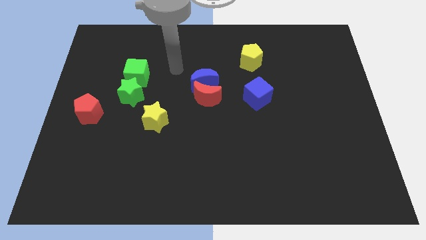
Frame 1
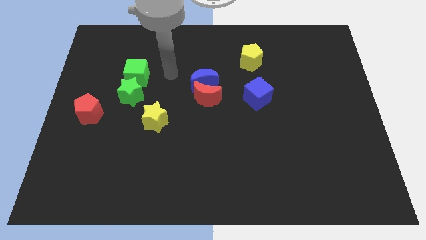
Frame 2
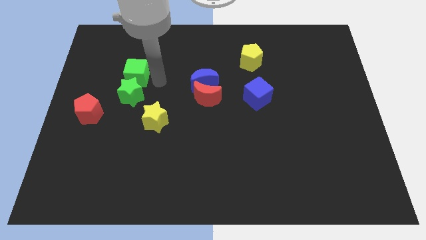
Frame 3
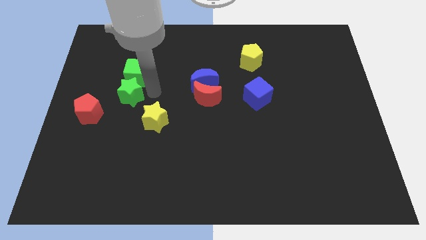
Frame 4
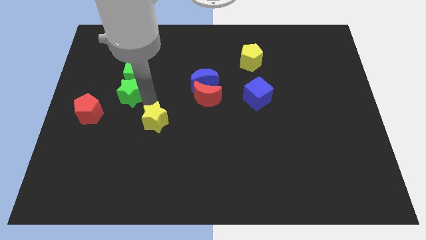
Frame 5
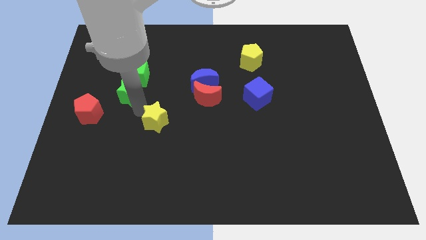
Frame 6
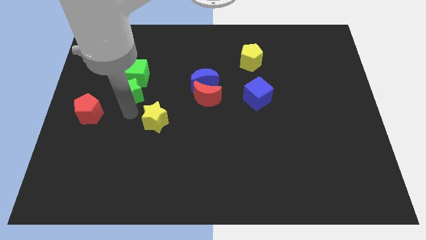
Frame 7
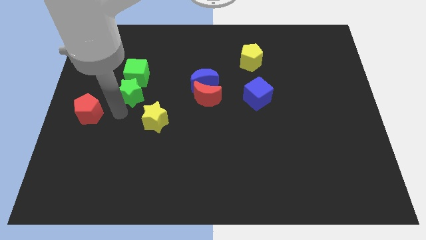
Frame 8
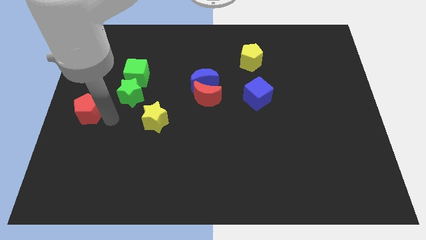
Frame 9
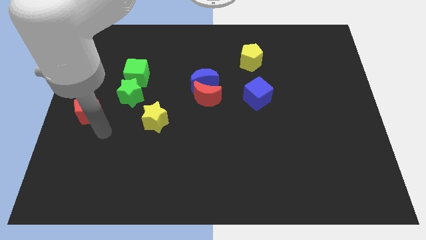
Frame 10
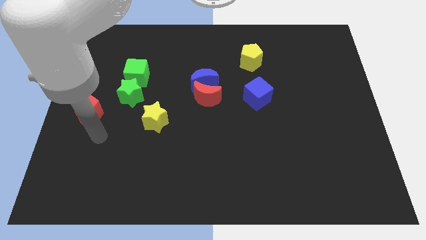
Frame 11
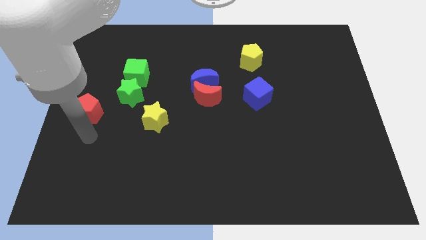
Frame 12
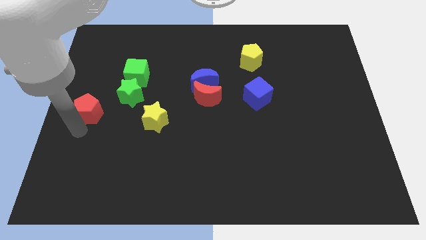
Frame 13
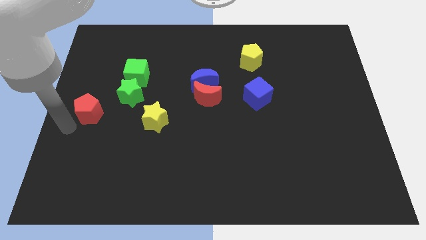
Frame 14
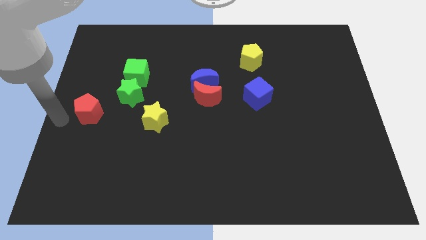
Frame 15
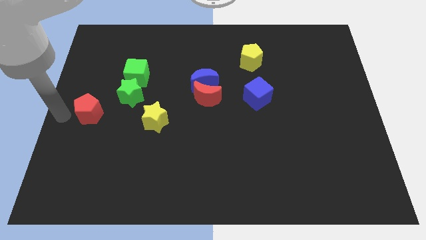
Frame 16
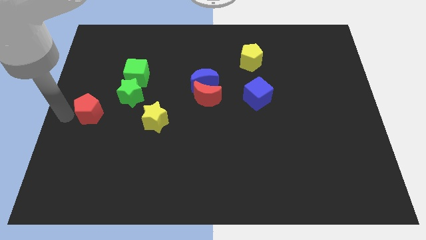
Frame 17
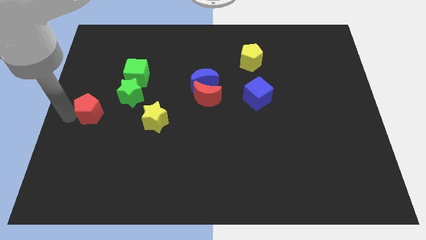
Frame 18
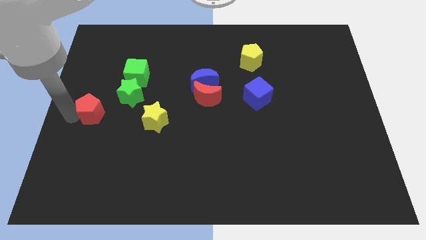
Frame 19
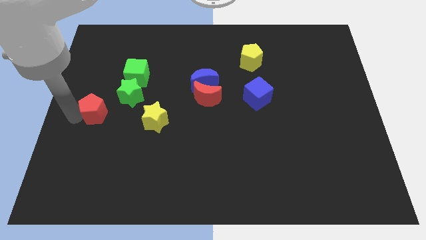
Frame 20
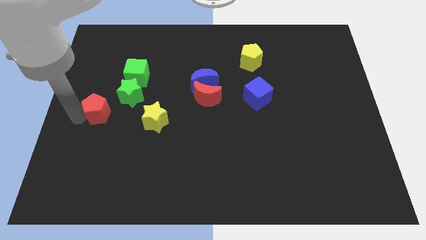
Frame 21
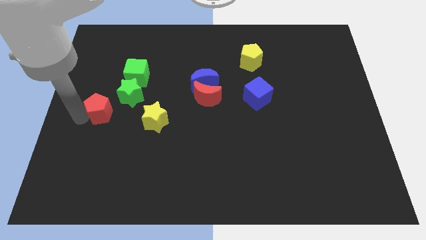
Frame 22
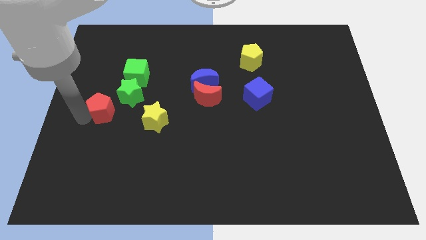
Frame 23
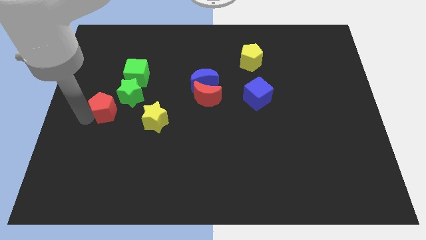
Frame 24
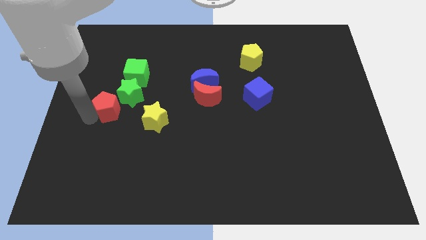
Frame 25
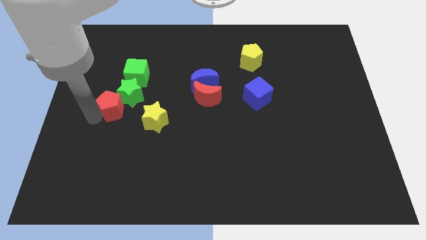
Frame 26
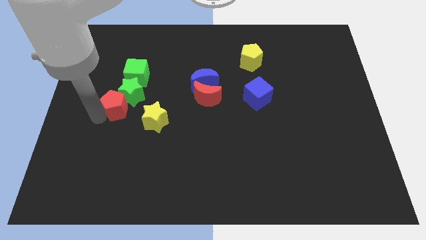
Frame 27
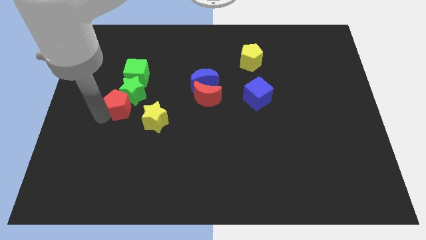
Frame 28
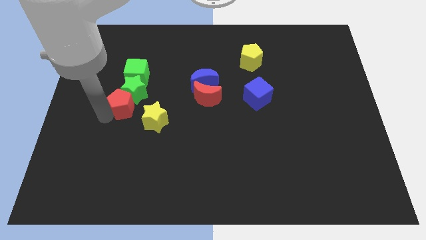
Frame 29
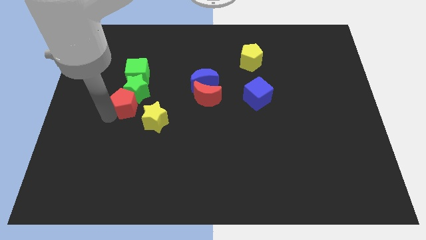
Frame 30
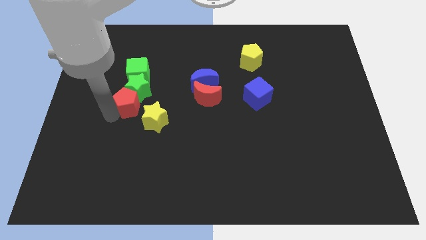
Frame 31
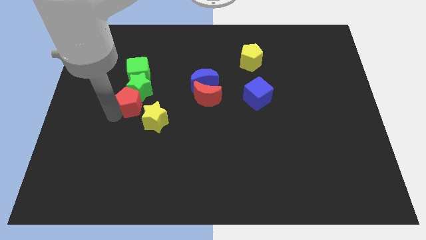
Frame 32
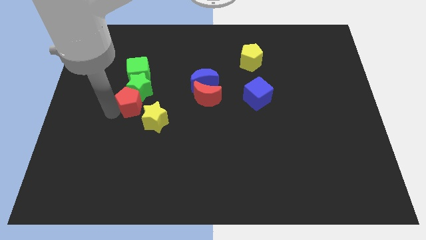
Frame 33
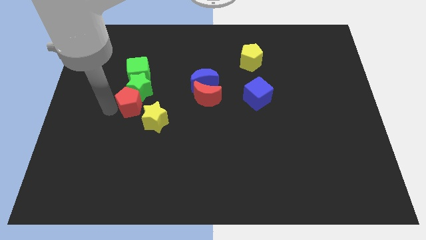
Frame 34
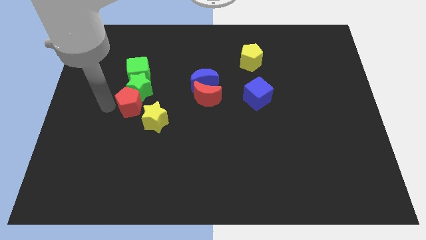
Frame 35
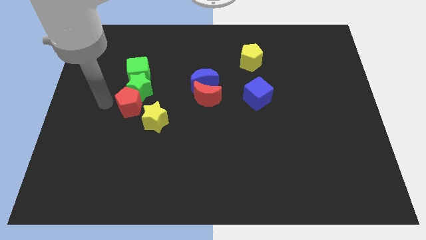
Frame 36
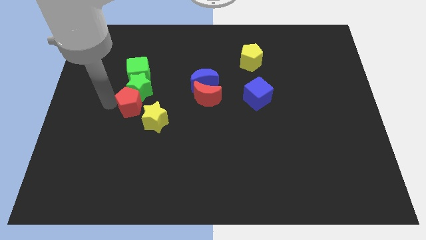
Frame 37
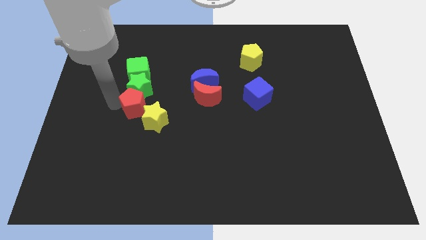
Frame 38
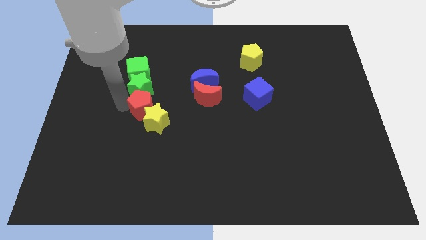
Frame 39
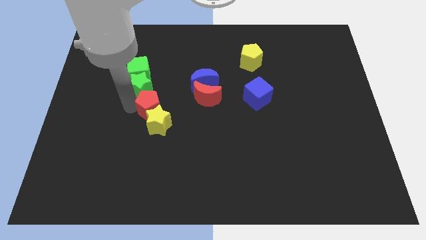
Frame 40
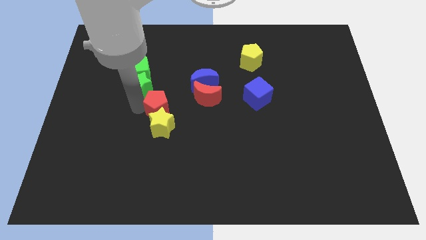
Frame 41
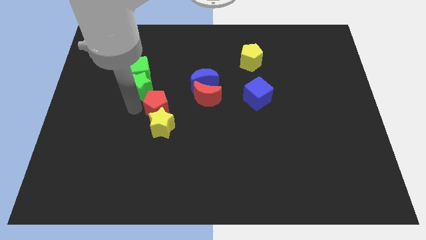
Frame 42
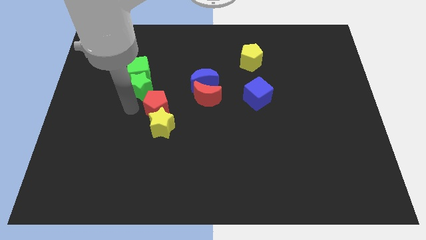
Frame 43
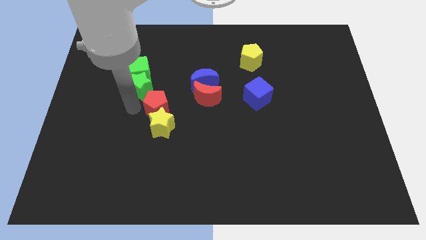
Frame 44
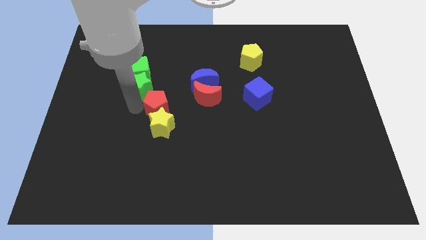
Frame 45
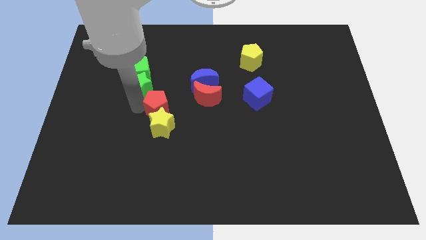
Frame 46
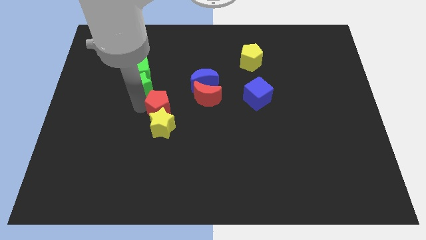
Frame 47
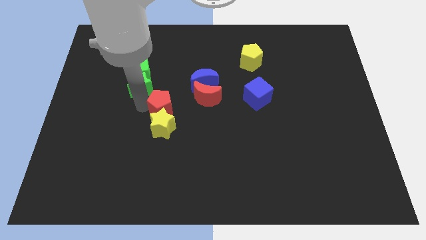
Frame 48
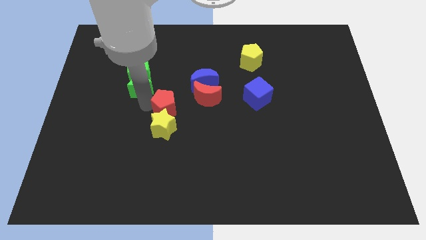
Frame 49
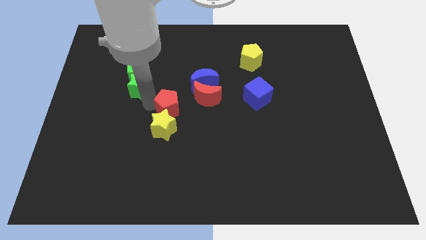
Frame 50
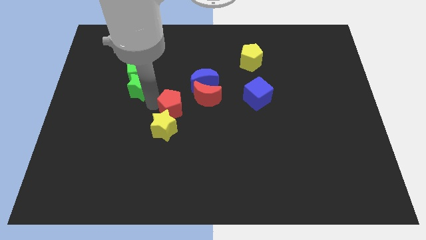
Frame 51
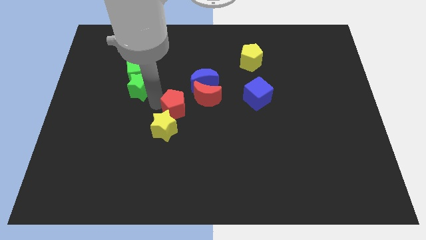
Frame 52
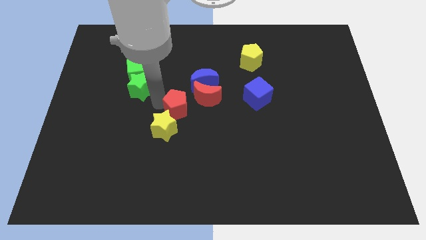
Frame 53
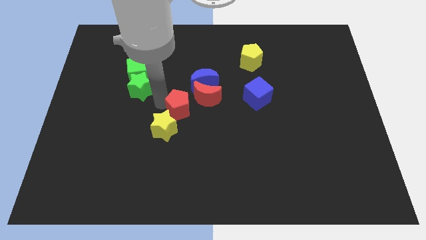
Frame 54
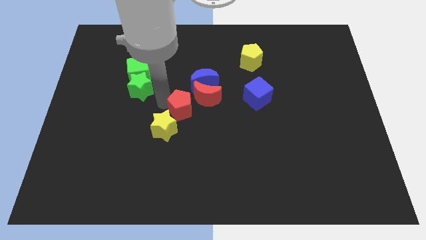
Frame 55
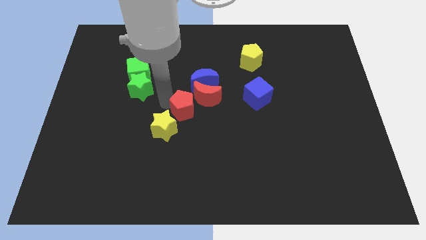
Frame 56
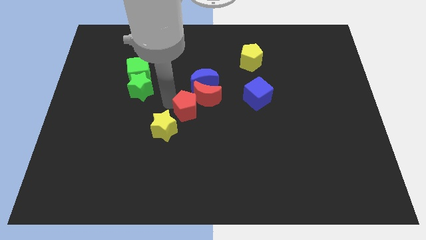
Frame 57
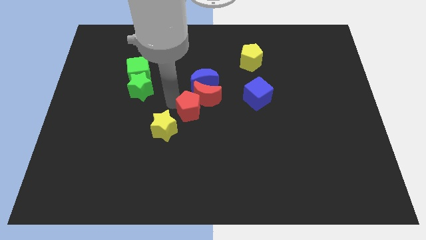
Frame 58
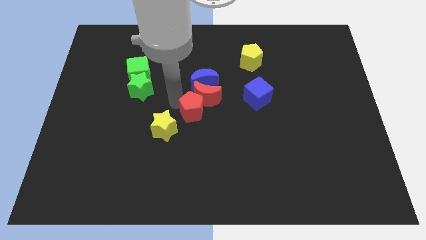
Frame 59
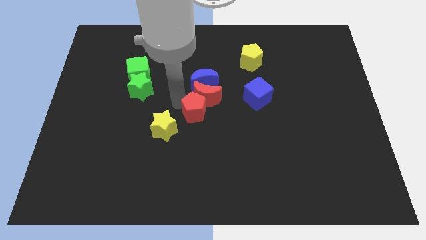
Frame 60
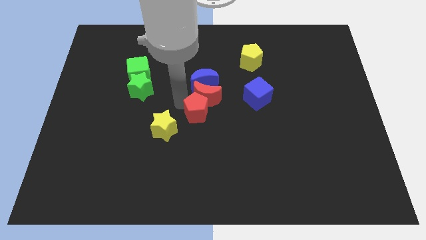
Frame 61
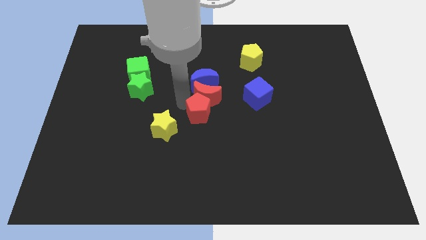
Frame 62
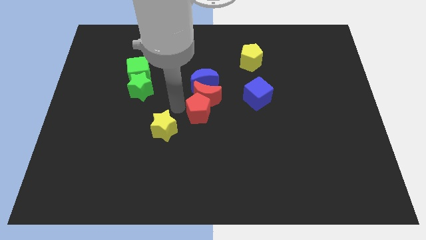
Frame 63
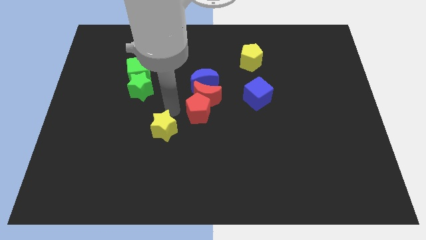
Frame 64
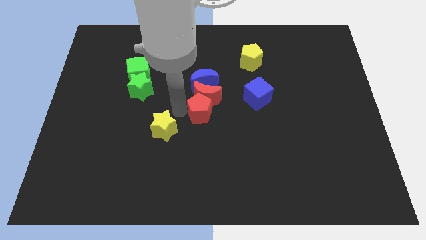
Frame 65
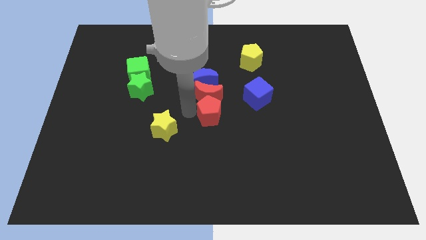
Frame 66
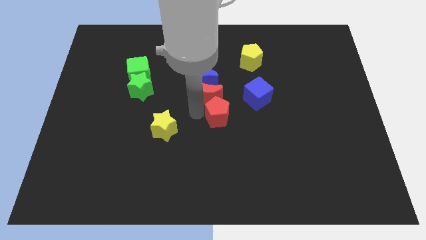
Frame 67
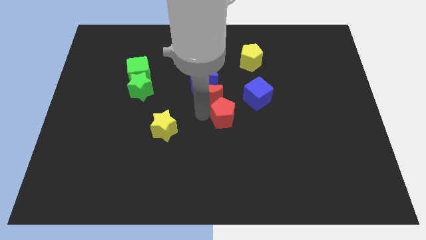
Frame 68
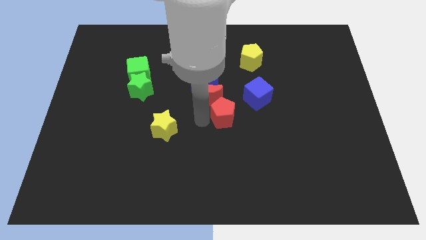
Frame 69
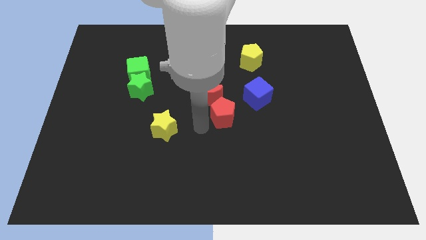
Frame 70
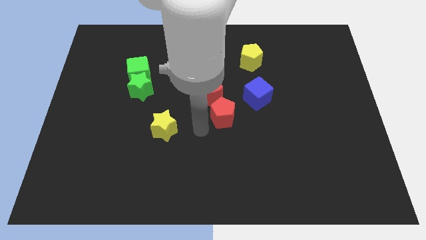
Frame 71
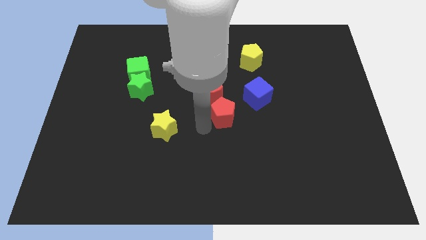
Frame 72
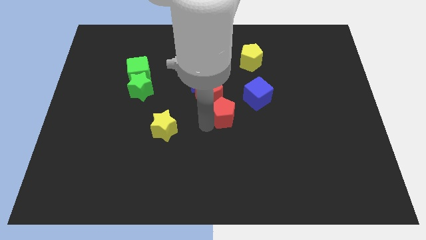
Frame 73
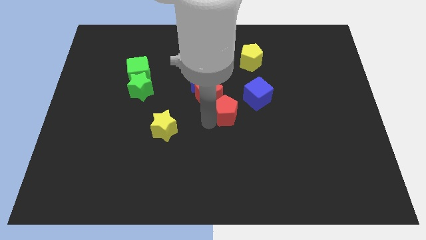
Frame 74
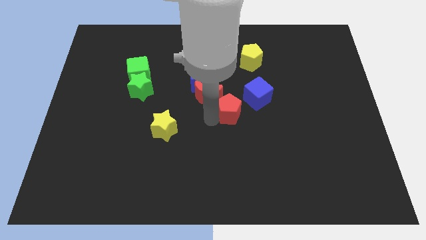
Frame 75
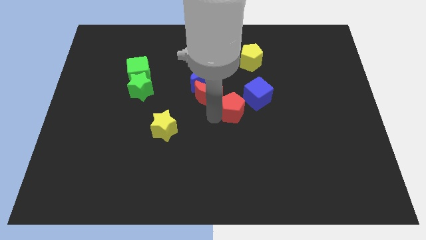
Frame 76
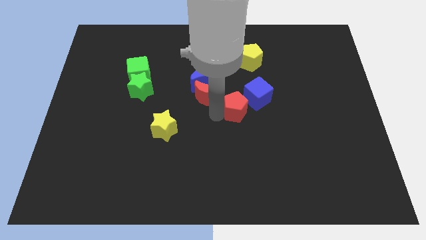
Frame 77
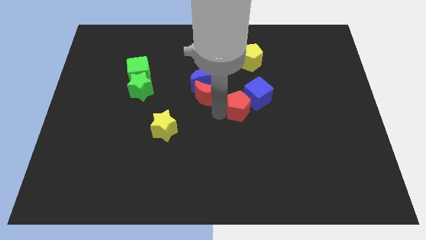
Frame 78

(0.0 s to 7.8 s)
move the red pentagon close to the blue cube

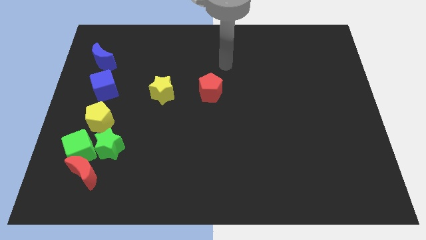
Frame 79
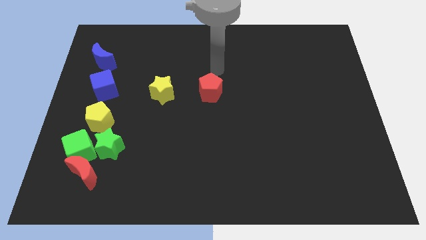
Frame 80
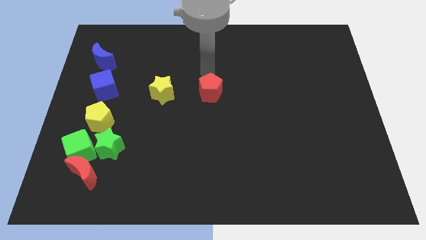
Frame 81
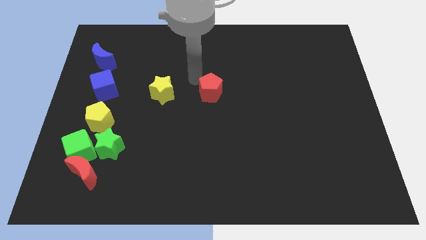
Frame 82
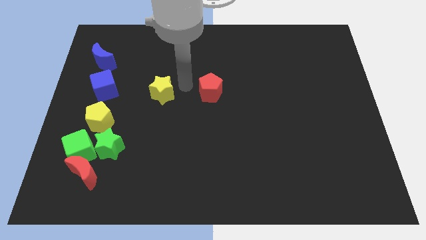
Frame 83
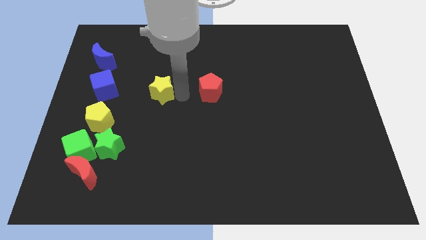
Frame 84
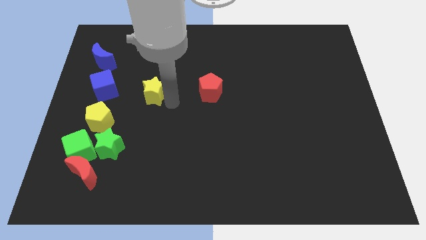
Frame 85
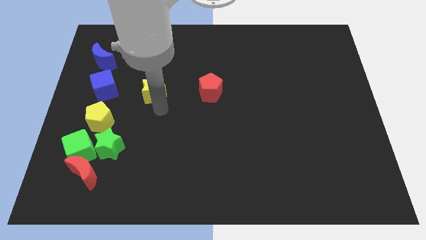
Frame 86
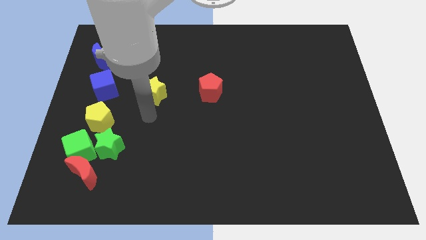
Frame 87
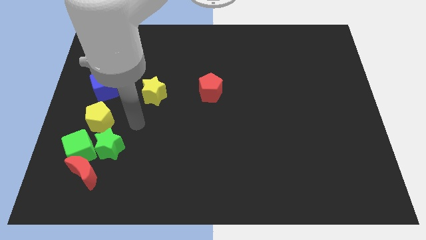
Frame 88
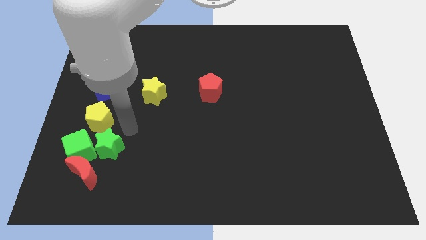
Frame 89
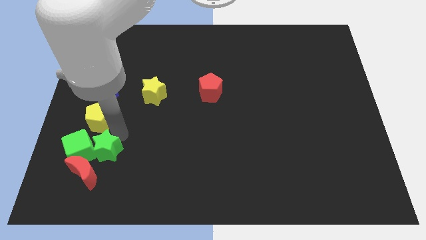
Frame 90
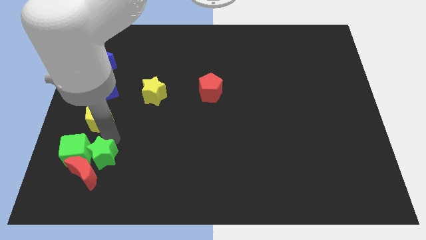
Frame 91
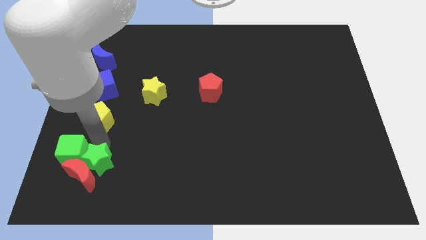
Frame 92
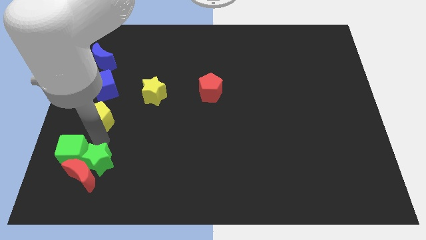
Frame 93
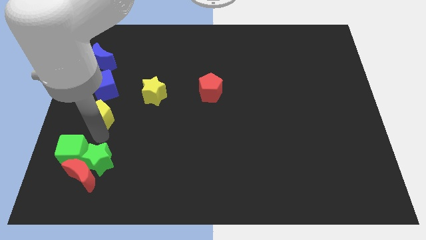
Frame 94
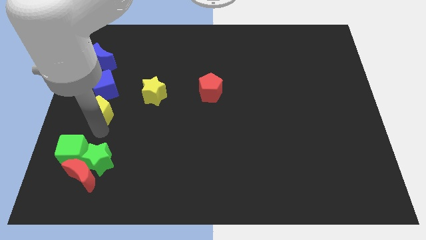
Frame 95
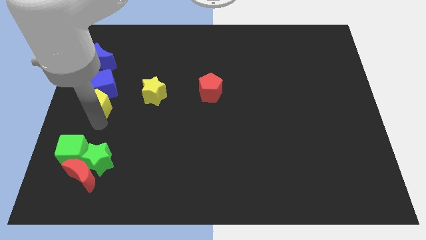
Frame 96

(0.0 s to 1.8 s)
push the yellow pentagon towards the blue cube
